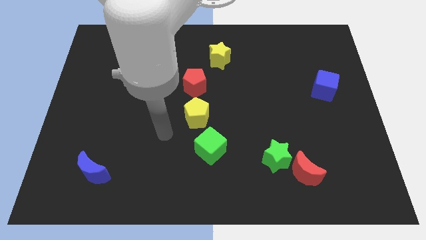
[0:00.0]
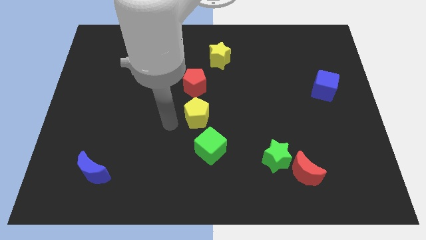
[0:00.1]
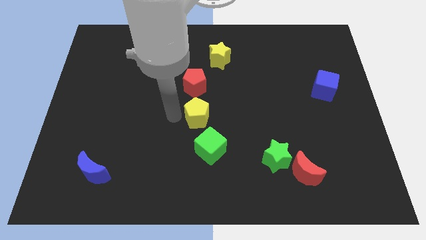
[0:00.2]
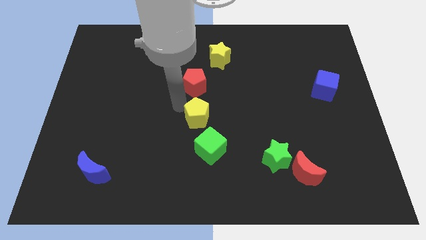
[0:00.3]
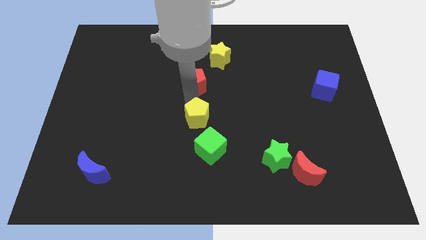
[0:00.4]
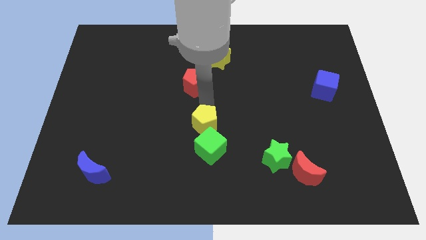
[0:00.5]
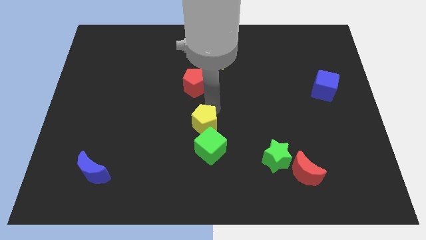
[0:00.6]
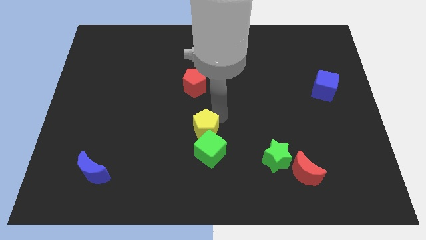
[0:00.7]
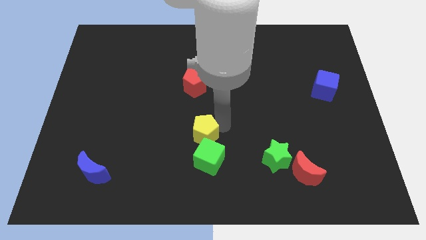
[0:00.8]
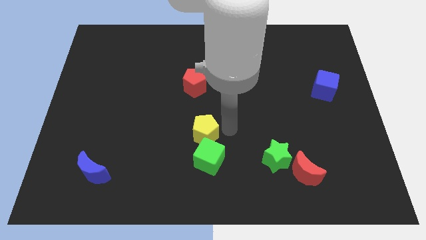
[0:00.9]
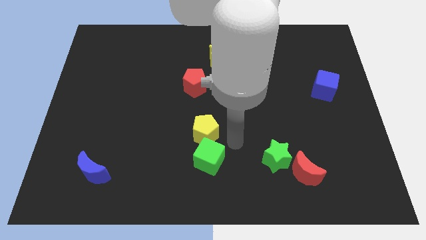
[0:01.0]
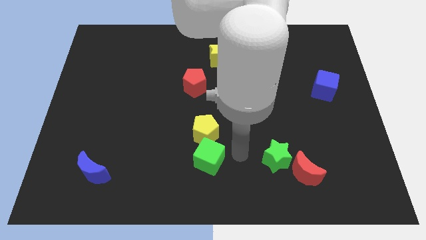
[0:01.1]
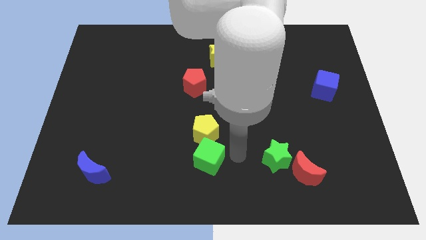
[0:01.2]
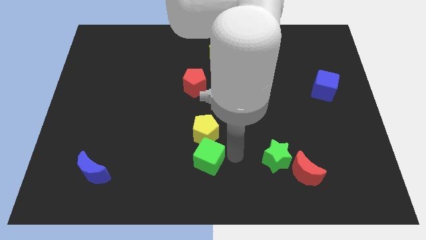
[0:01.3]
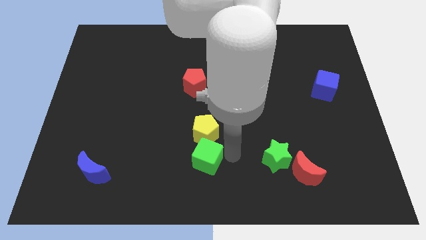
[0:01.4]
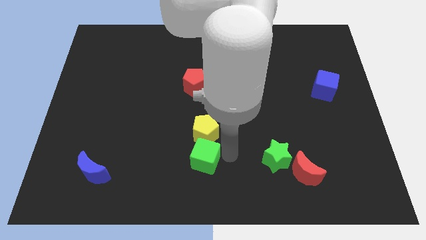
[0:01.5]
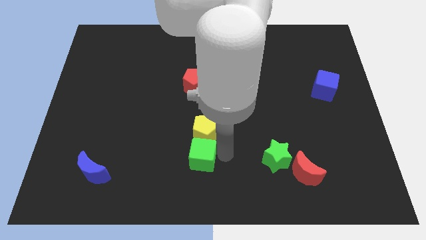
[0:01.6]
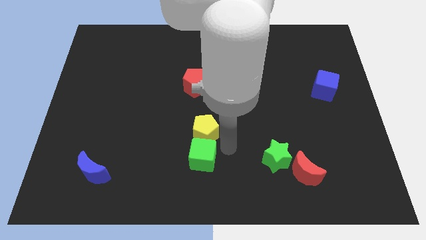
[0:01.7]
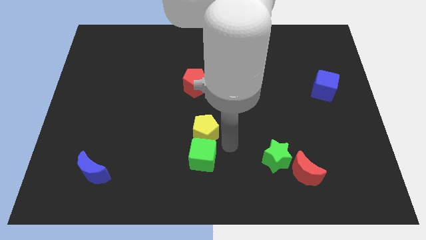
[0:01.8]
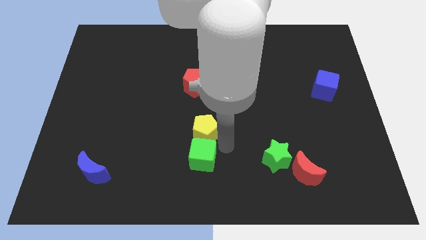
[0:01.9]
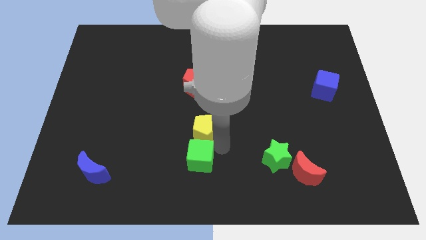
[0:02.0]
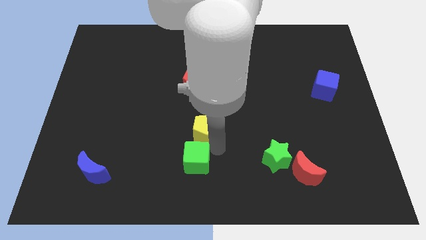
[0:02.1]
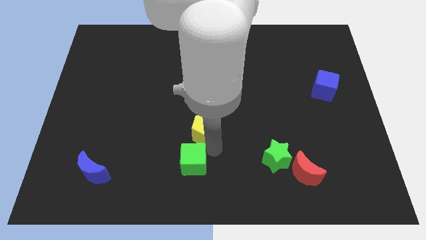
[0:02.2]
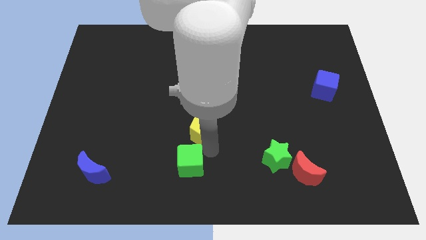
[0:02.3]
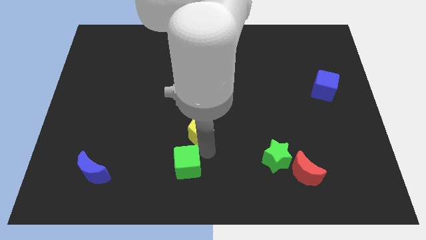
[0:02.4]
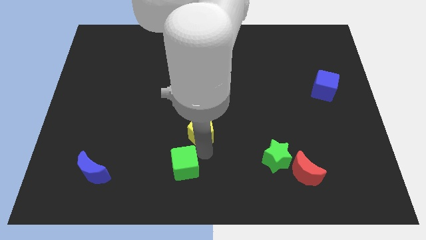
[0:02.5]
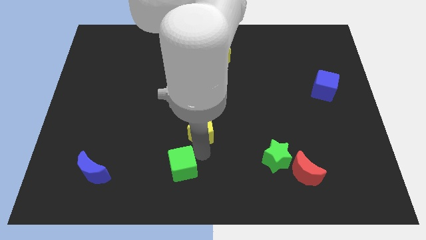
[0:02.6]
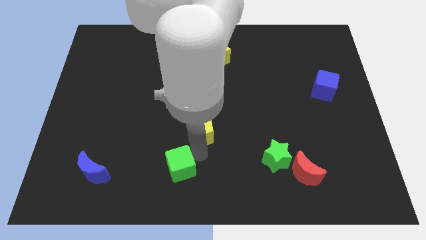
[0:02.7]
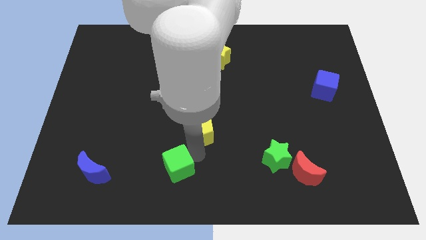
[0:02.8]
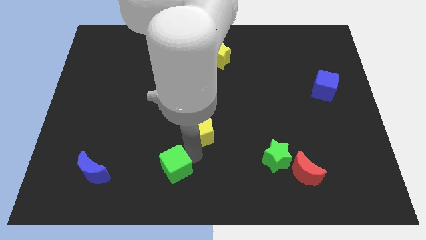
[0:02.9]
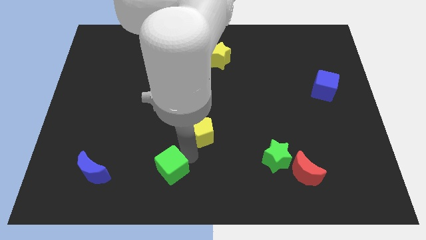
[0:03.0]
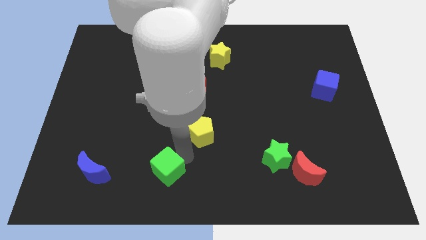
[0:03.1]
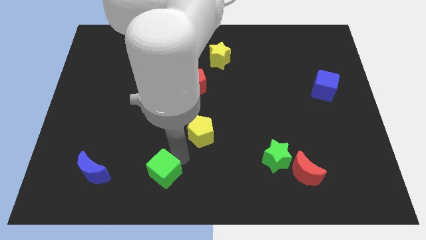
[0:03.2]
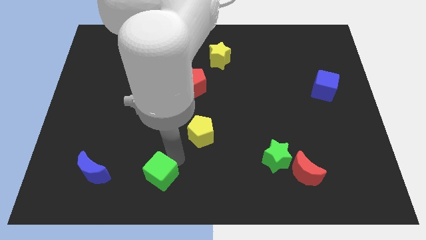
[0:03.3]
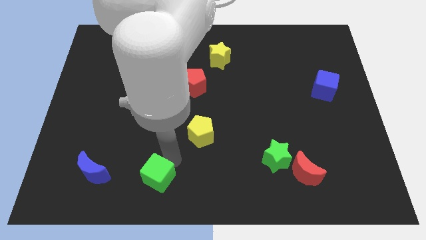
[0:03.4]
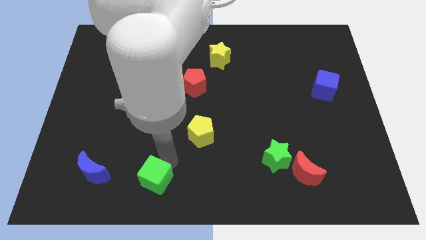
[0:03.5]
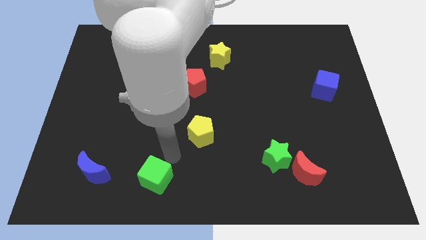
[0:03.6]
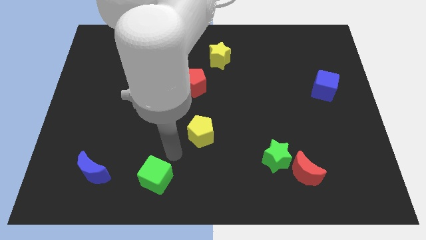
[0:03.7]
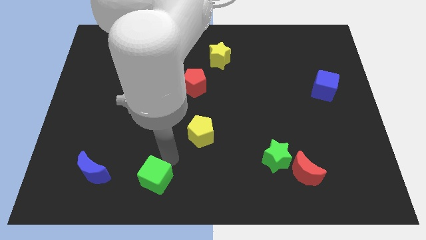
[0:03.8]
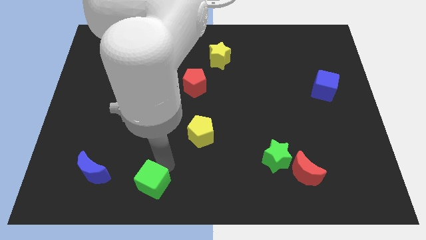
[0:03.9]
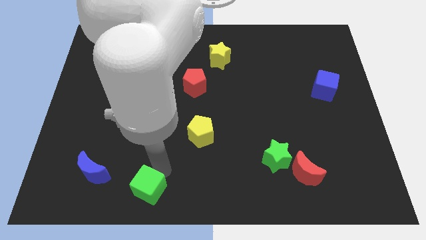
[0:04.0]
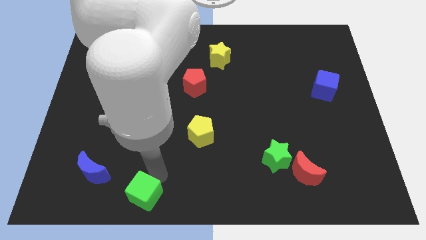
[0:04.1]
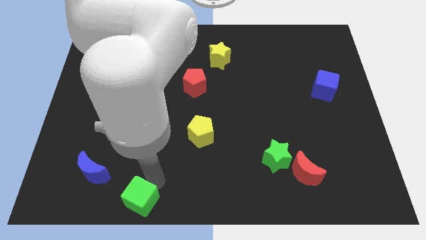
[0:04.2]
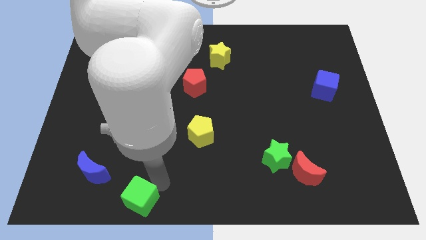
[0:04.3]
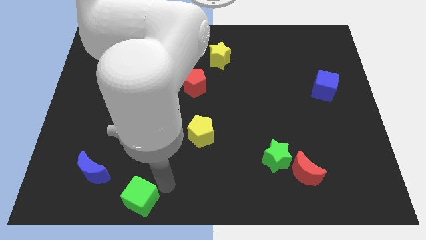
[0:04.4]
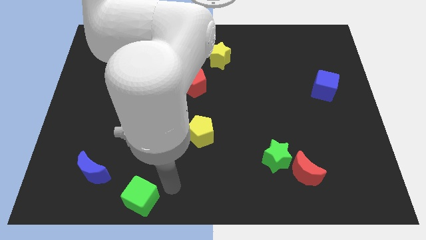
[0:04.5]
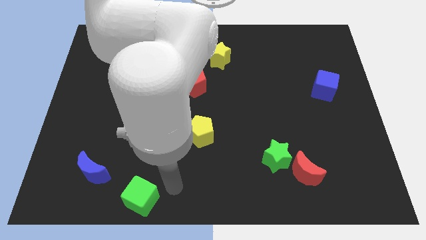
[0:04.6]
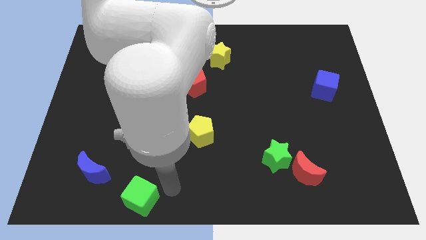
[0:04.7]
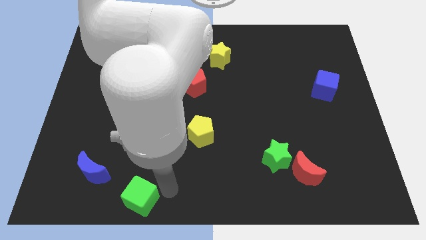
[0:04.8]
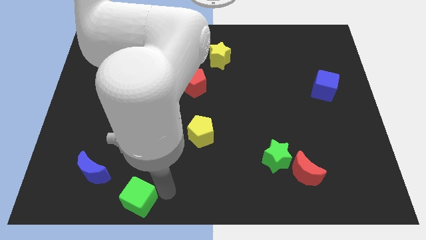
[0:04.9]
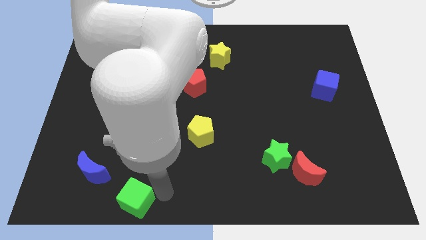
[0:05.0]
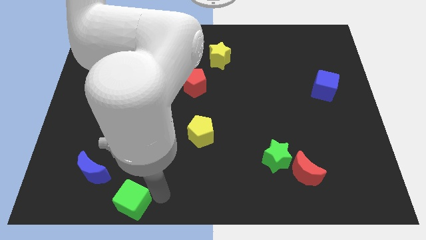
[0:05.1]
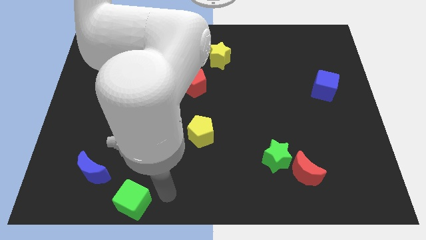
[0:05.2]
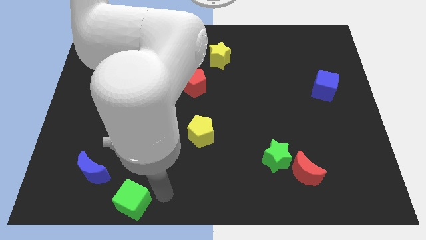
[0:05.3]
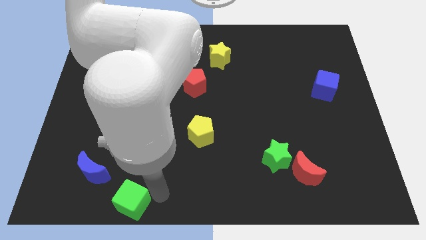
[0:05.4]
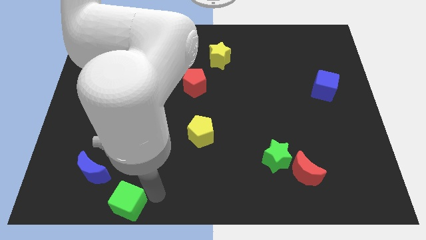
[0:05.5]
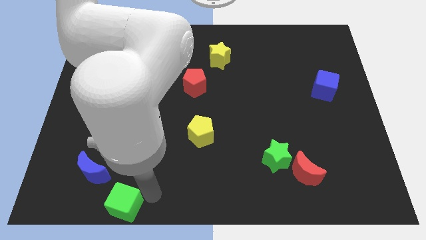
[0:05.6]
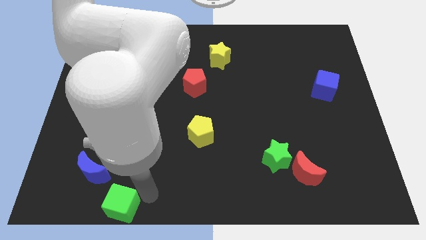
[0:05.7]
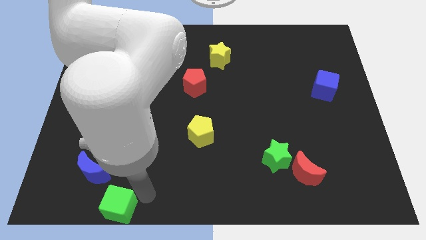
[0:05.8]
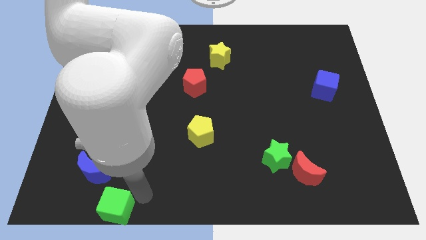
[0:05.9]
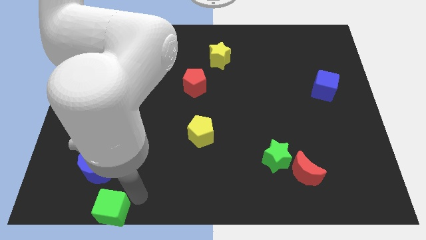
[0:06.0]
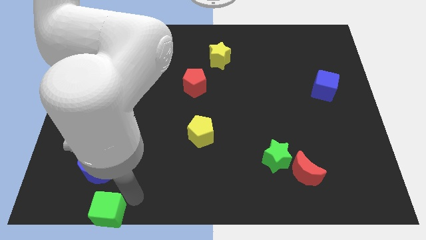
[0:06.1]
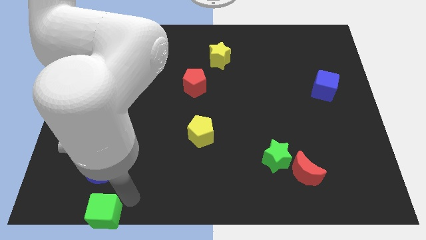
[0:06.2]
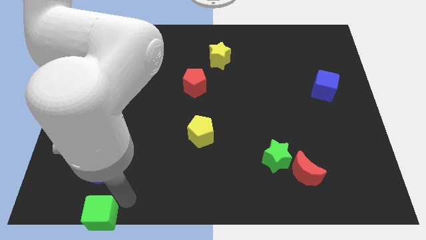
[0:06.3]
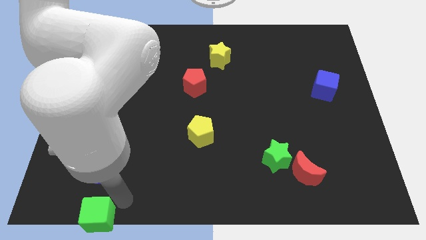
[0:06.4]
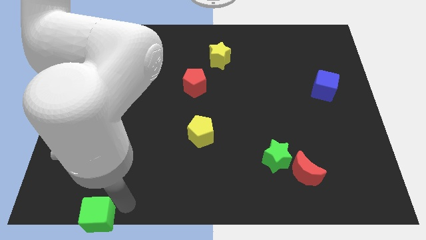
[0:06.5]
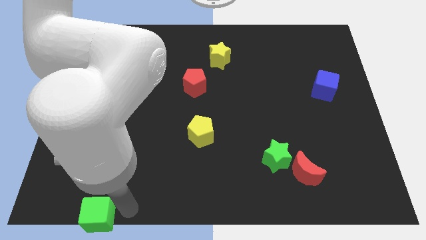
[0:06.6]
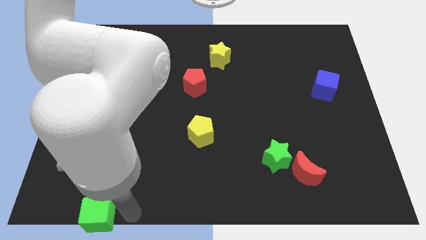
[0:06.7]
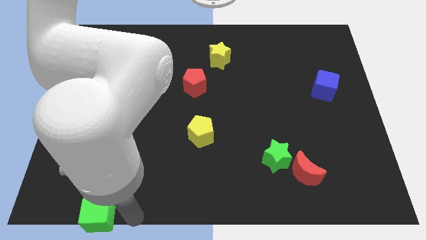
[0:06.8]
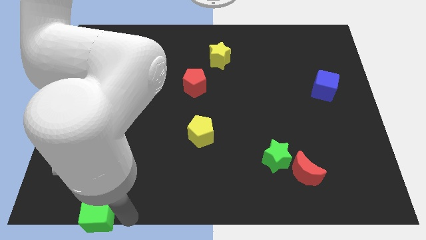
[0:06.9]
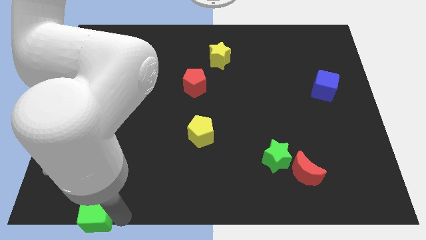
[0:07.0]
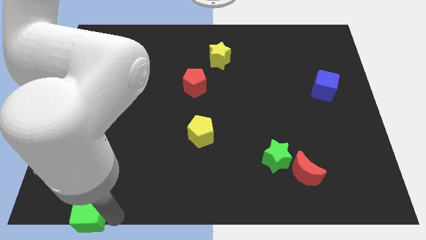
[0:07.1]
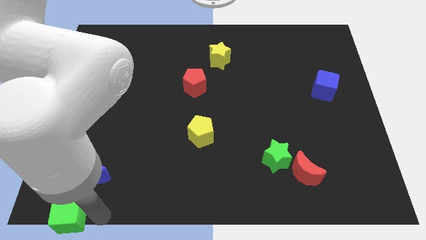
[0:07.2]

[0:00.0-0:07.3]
put the green cube to the bottom left
